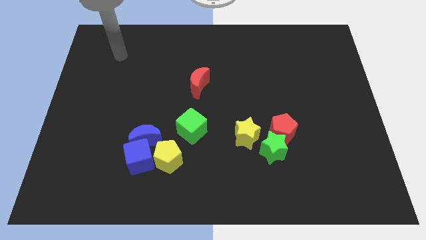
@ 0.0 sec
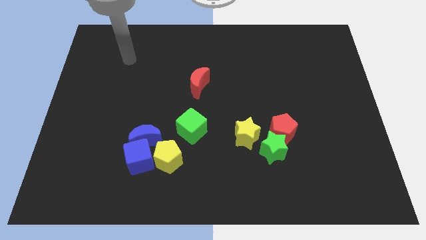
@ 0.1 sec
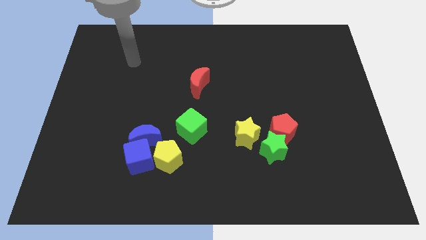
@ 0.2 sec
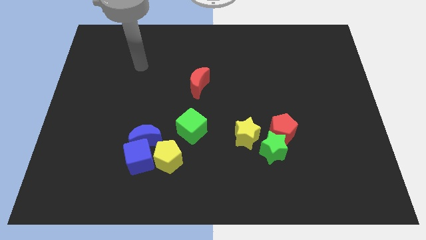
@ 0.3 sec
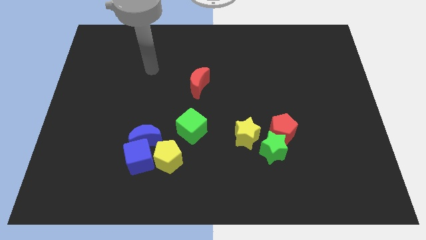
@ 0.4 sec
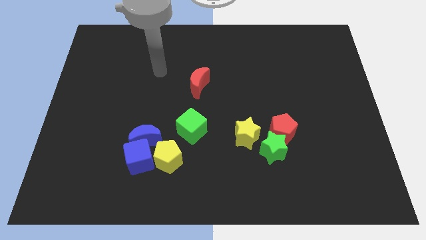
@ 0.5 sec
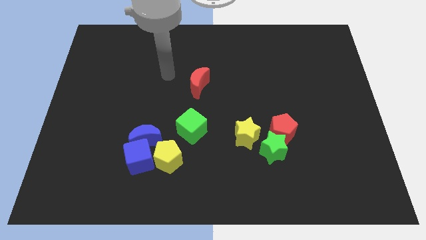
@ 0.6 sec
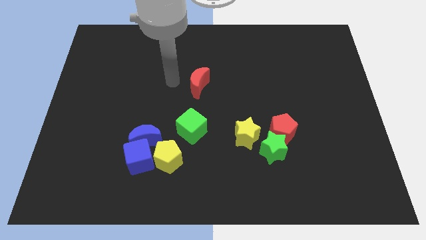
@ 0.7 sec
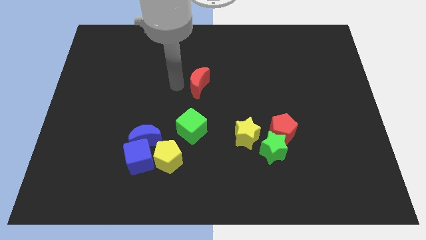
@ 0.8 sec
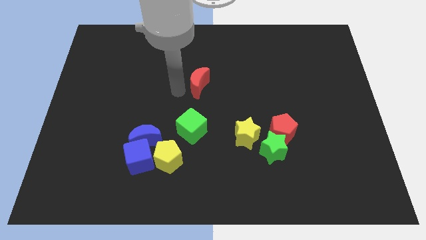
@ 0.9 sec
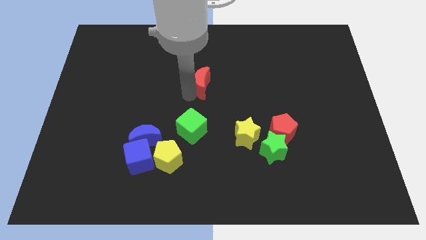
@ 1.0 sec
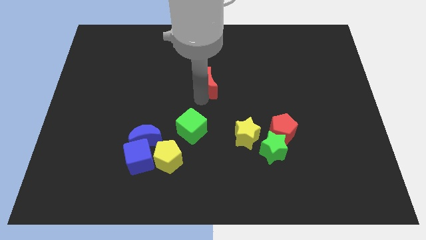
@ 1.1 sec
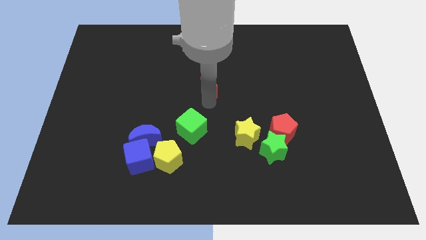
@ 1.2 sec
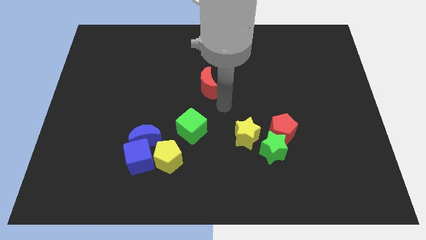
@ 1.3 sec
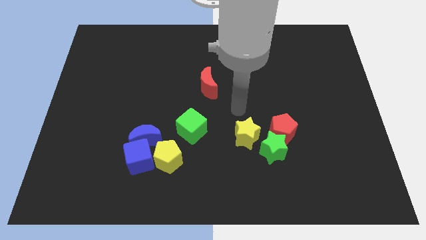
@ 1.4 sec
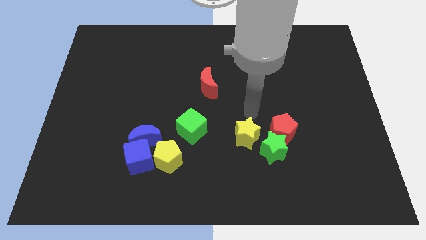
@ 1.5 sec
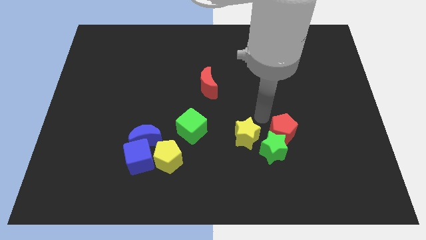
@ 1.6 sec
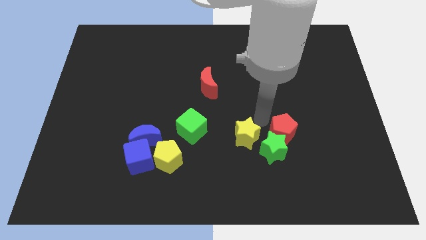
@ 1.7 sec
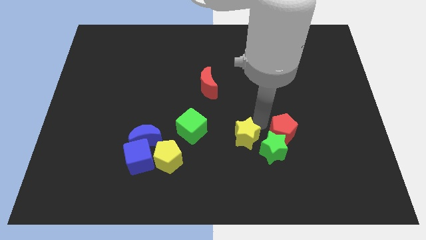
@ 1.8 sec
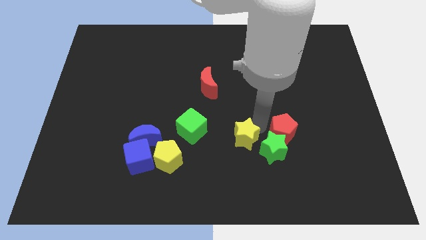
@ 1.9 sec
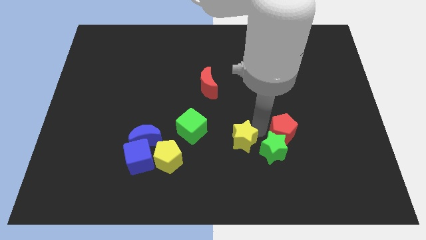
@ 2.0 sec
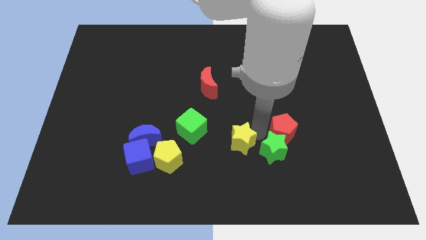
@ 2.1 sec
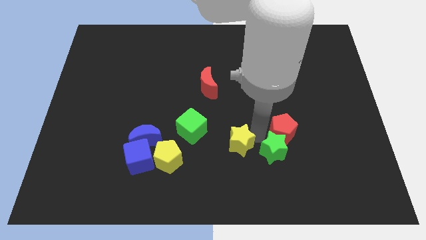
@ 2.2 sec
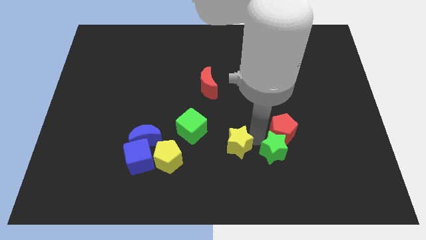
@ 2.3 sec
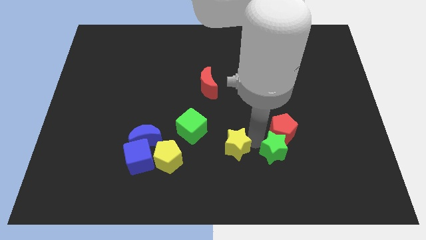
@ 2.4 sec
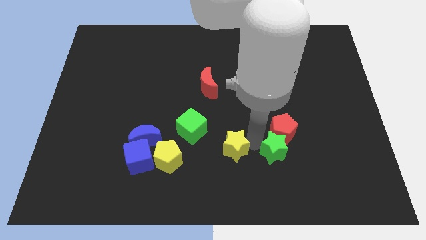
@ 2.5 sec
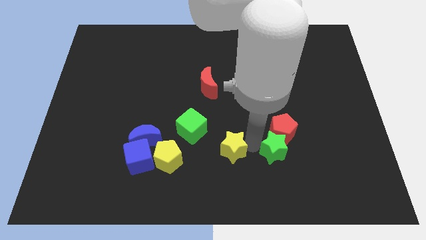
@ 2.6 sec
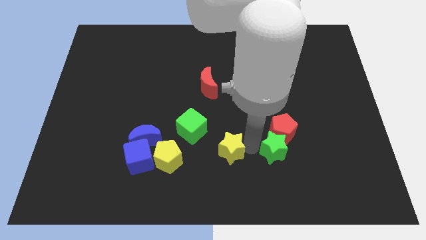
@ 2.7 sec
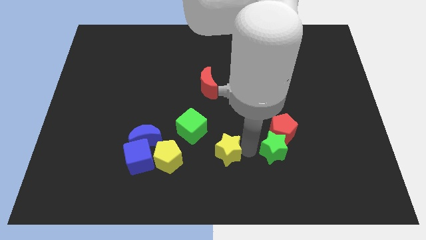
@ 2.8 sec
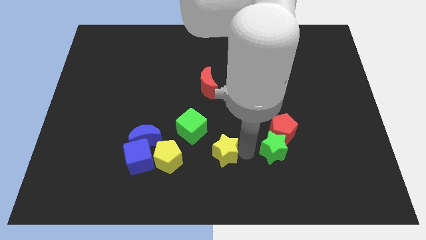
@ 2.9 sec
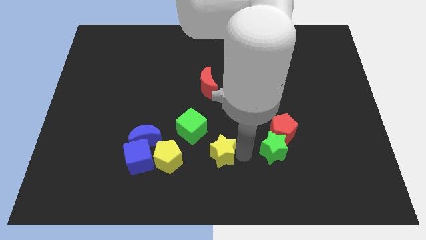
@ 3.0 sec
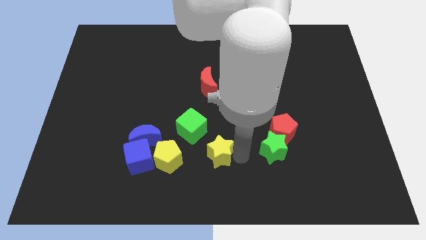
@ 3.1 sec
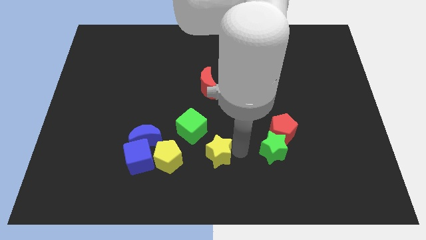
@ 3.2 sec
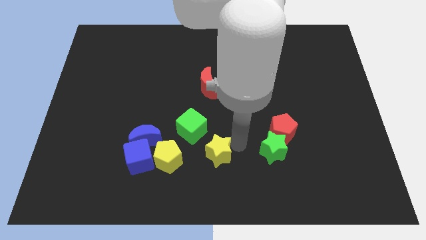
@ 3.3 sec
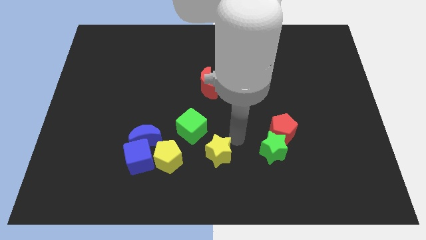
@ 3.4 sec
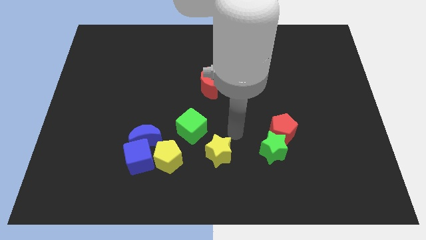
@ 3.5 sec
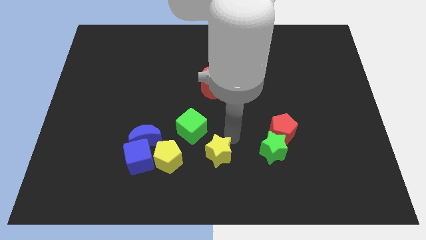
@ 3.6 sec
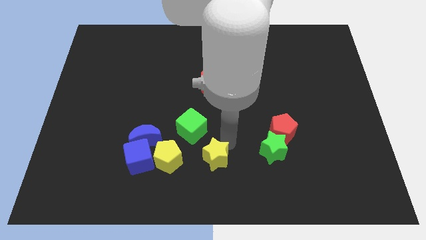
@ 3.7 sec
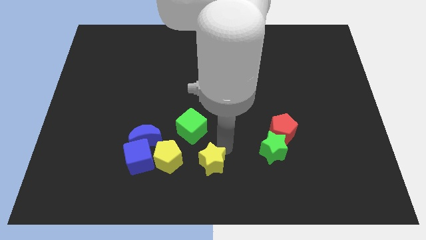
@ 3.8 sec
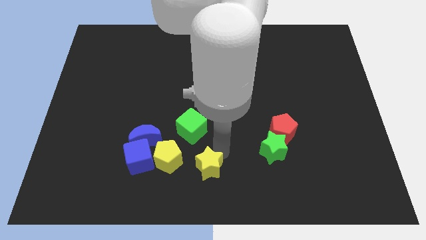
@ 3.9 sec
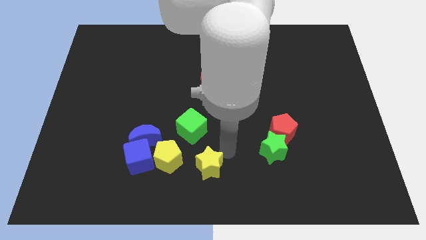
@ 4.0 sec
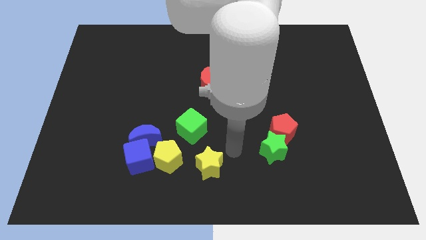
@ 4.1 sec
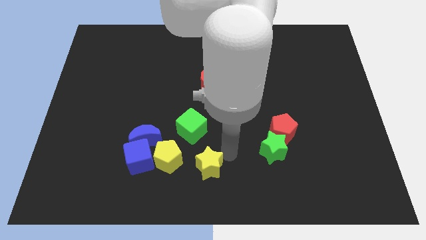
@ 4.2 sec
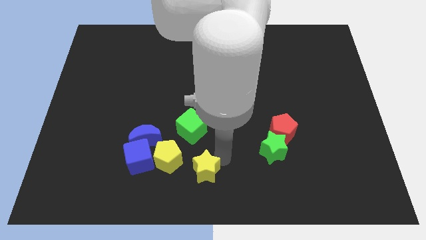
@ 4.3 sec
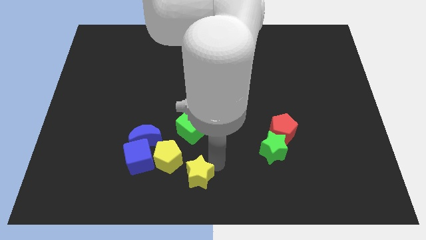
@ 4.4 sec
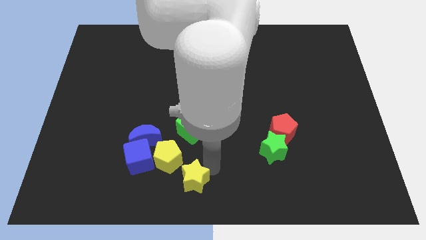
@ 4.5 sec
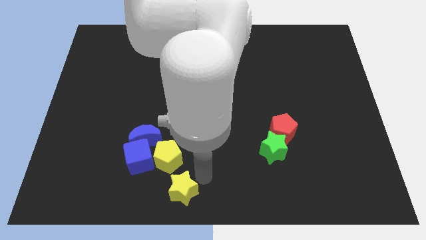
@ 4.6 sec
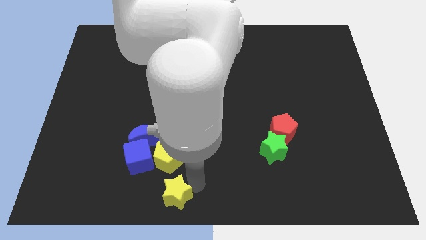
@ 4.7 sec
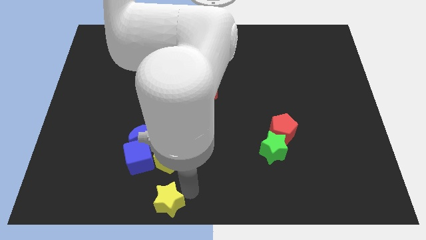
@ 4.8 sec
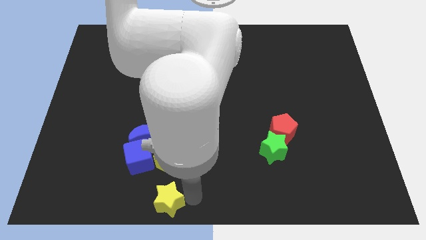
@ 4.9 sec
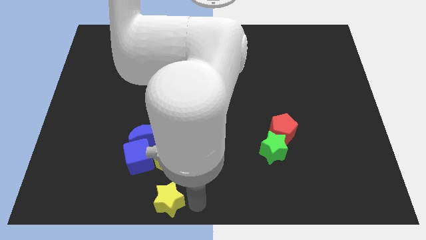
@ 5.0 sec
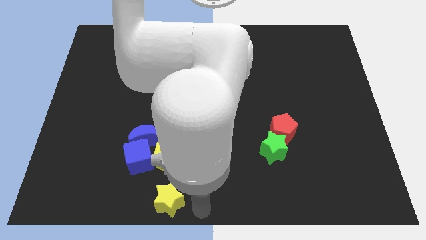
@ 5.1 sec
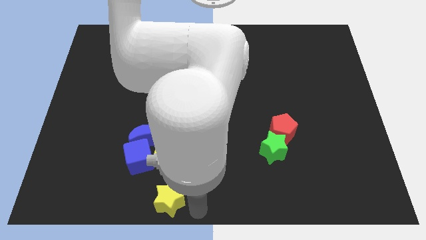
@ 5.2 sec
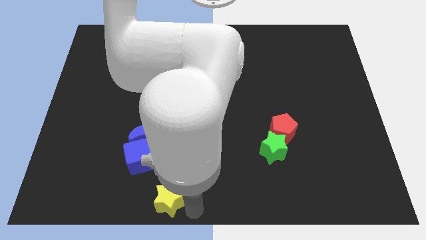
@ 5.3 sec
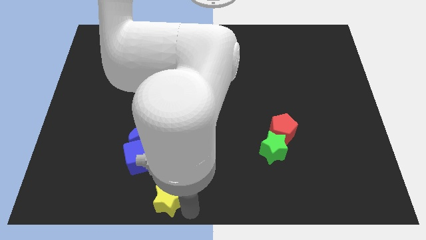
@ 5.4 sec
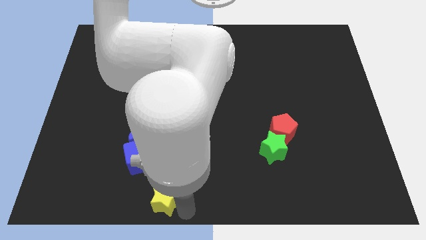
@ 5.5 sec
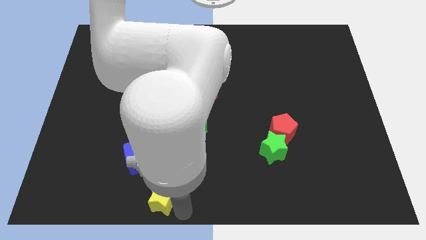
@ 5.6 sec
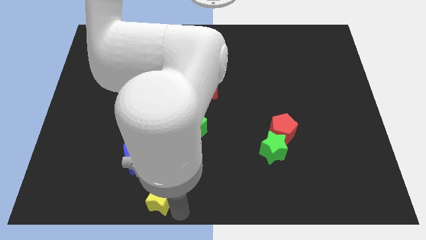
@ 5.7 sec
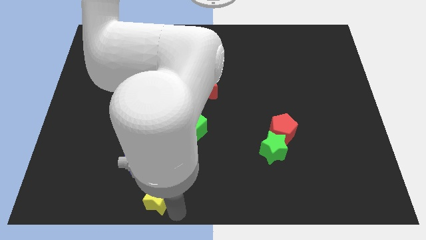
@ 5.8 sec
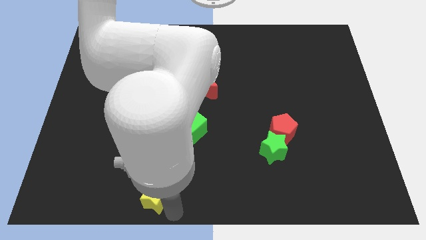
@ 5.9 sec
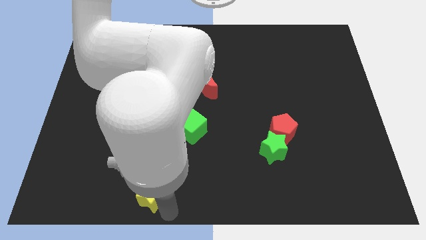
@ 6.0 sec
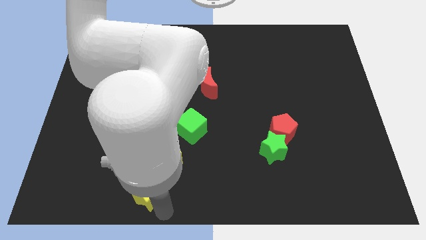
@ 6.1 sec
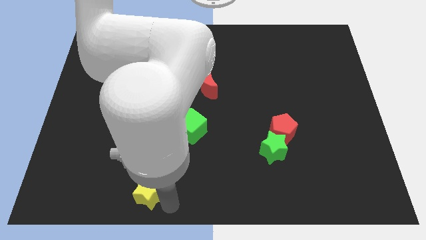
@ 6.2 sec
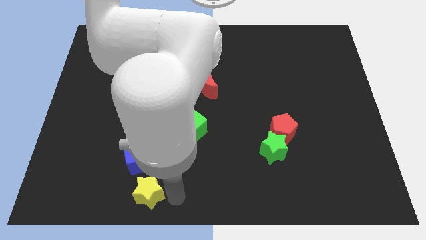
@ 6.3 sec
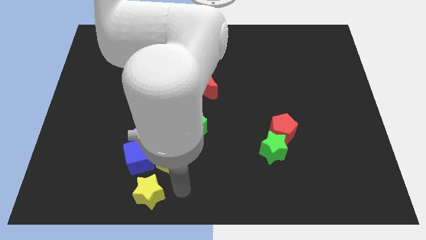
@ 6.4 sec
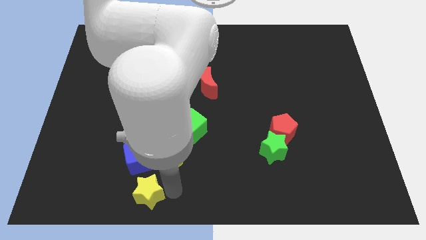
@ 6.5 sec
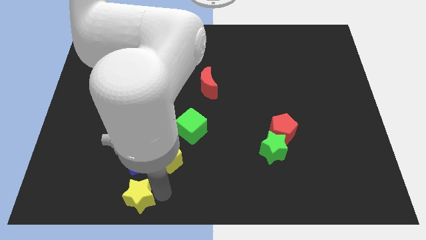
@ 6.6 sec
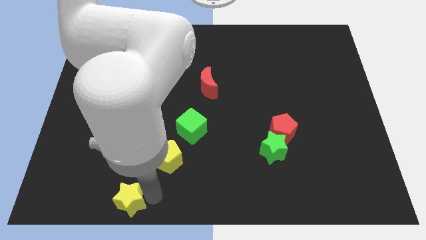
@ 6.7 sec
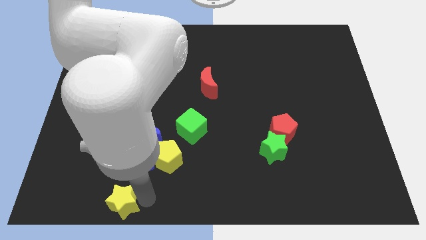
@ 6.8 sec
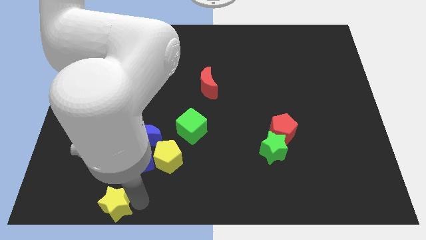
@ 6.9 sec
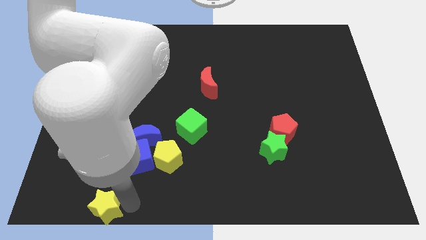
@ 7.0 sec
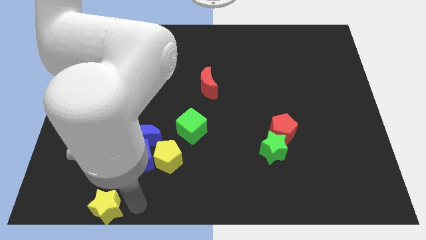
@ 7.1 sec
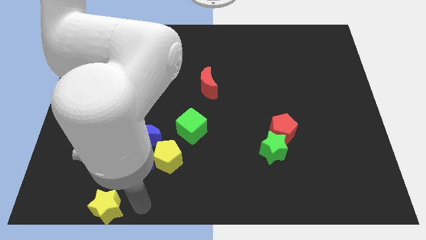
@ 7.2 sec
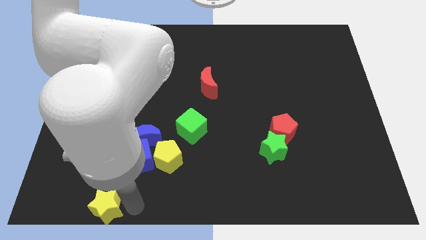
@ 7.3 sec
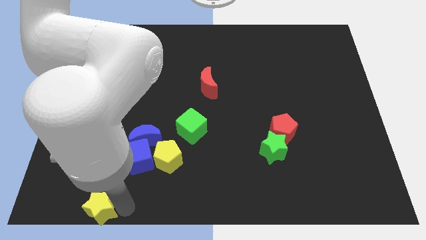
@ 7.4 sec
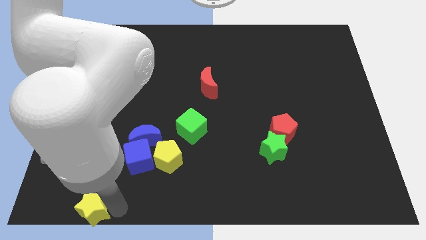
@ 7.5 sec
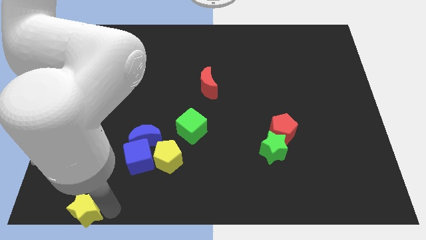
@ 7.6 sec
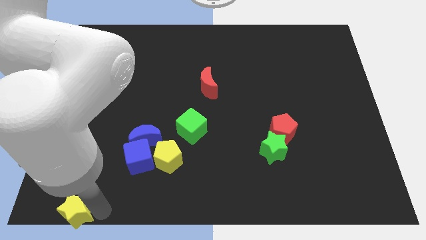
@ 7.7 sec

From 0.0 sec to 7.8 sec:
put the yellow star to the bottom left of the board
